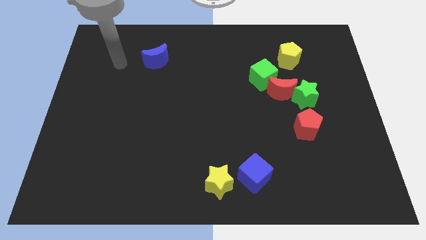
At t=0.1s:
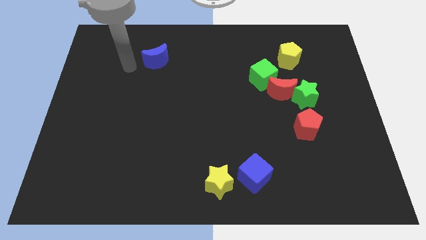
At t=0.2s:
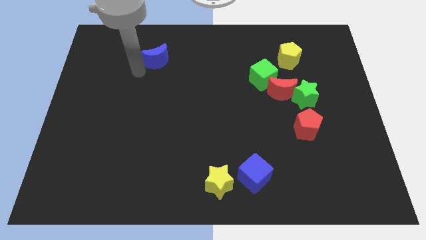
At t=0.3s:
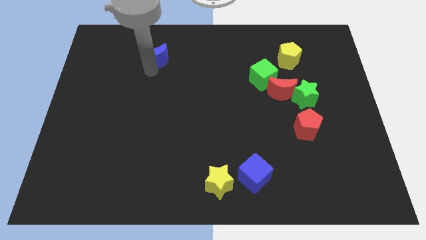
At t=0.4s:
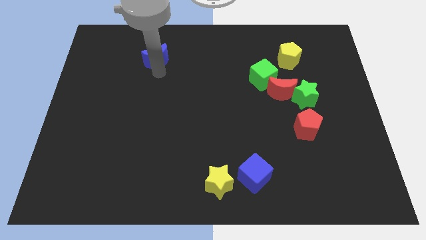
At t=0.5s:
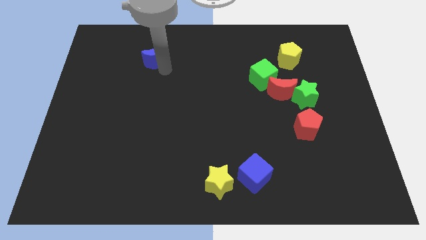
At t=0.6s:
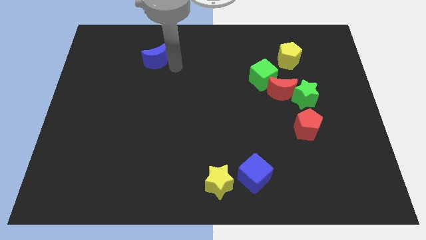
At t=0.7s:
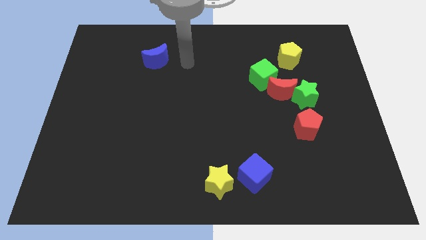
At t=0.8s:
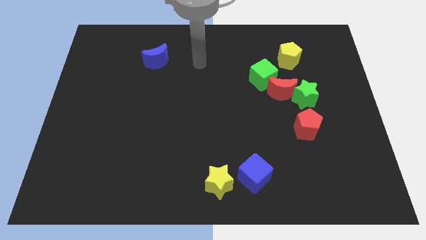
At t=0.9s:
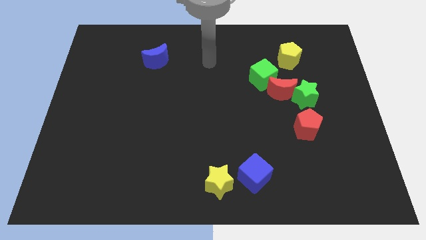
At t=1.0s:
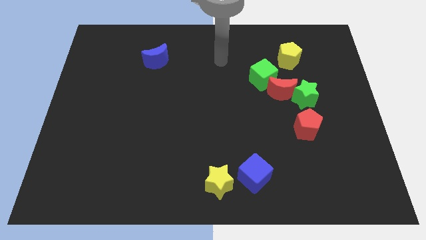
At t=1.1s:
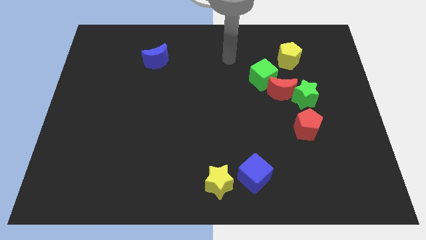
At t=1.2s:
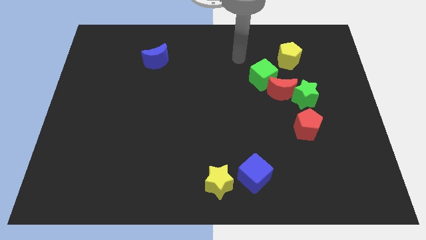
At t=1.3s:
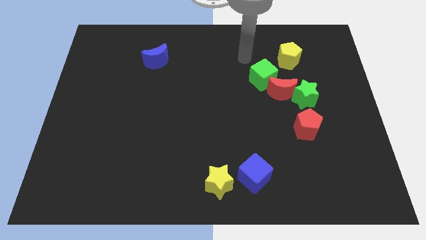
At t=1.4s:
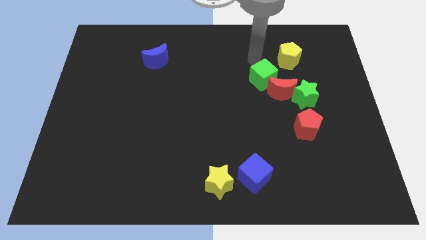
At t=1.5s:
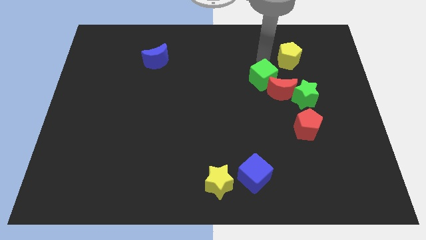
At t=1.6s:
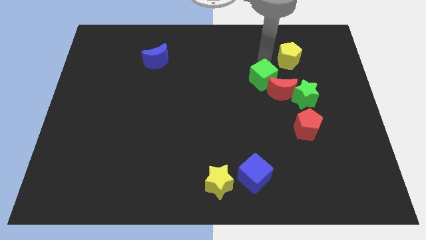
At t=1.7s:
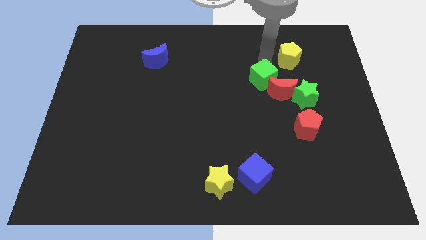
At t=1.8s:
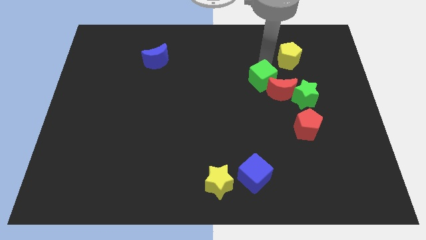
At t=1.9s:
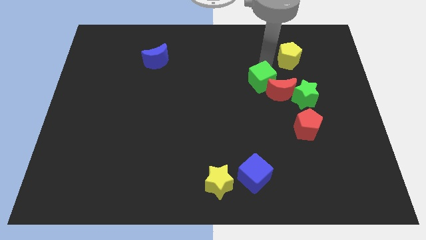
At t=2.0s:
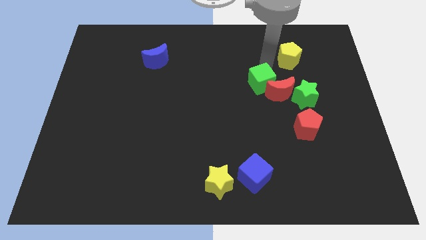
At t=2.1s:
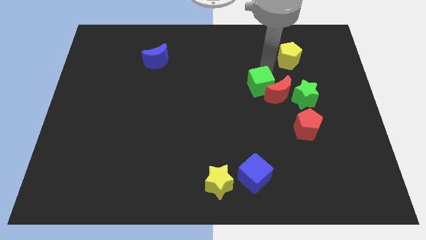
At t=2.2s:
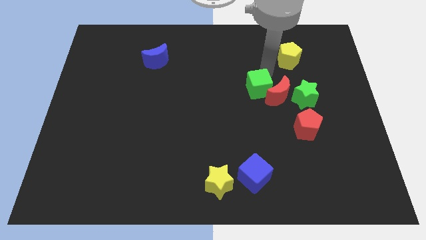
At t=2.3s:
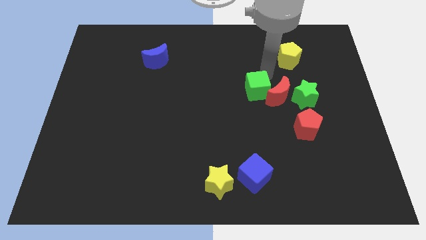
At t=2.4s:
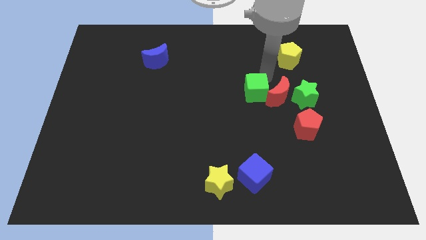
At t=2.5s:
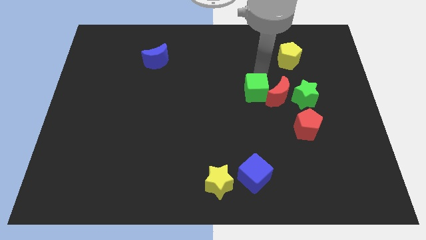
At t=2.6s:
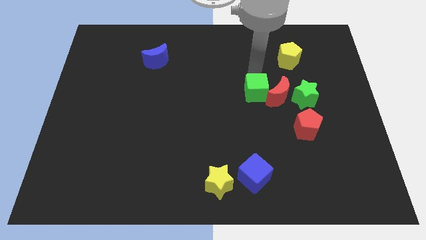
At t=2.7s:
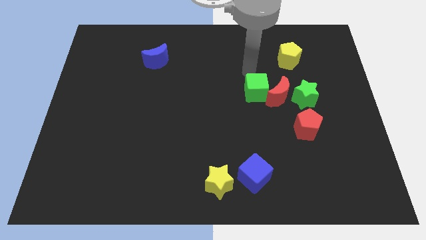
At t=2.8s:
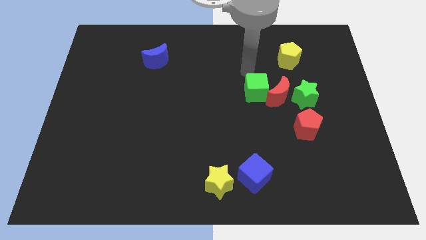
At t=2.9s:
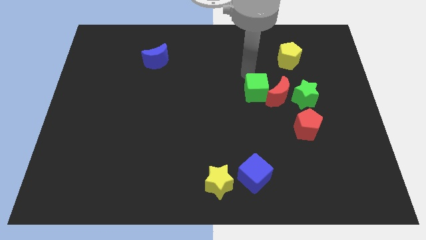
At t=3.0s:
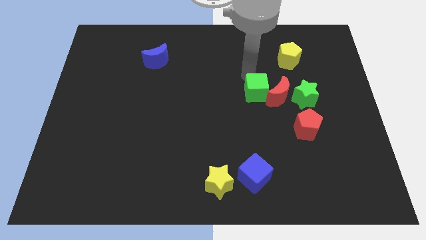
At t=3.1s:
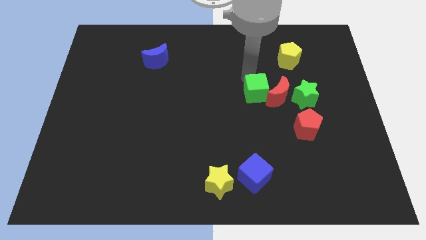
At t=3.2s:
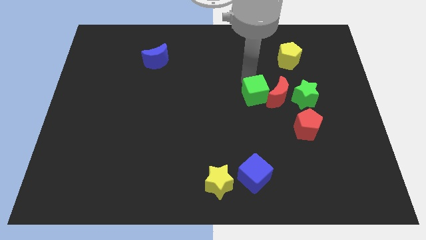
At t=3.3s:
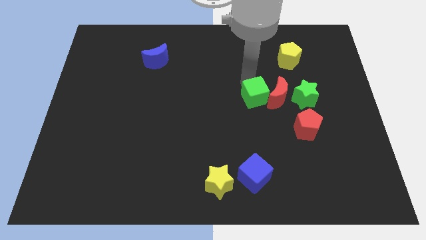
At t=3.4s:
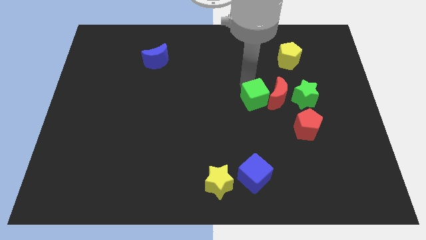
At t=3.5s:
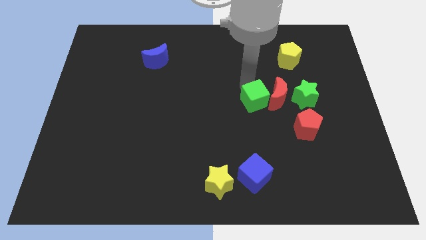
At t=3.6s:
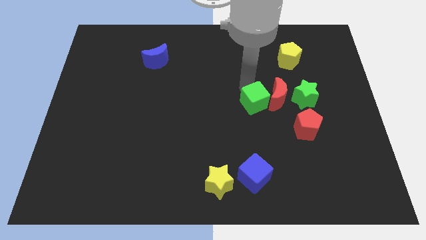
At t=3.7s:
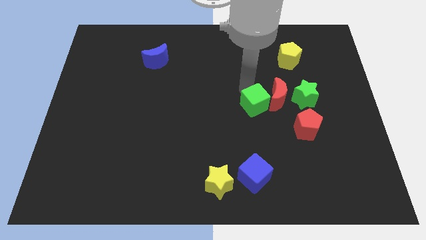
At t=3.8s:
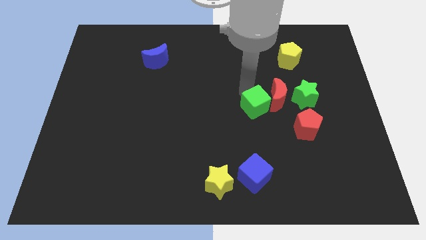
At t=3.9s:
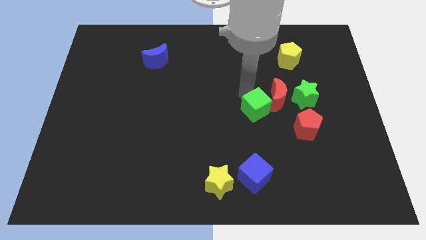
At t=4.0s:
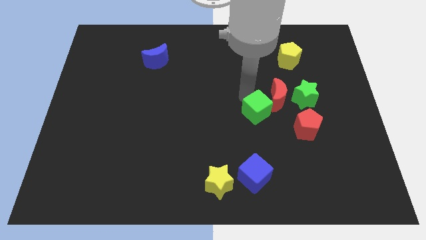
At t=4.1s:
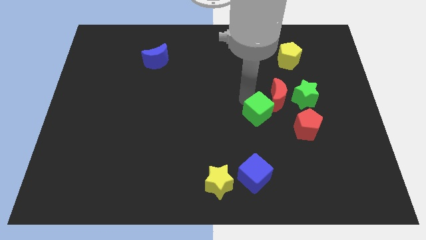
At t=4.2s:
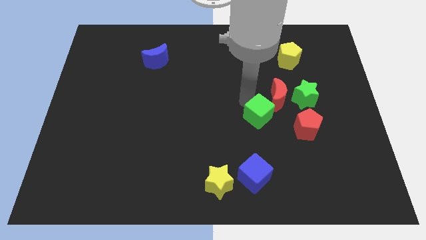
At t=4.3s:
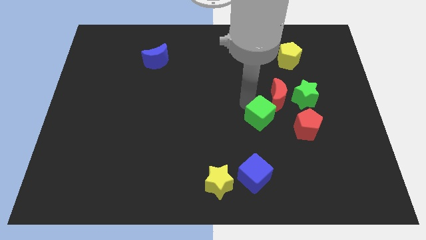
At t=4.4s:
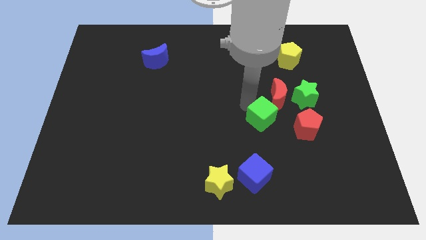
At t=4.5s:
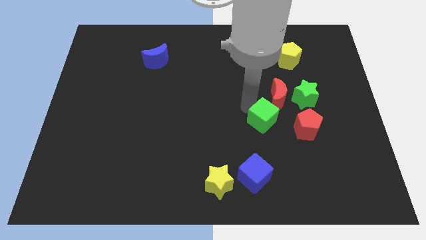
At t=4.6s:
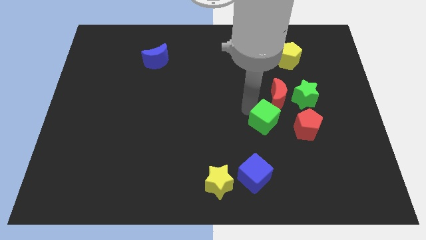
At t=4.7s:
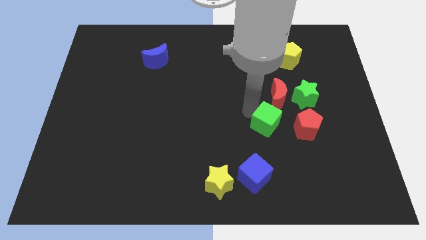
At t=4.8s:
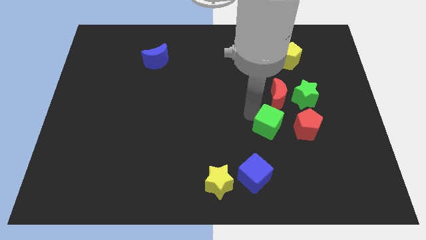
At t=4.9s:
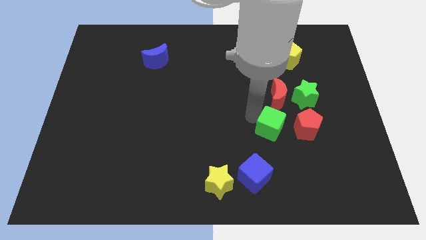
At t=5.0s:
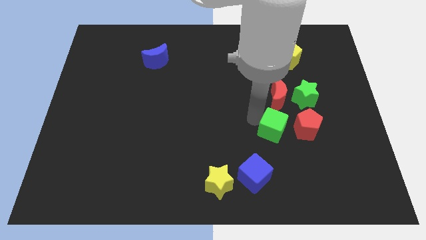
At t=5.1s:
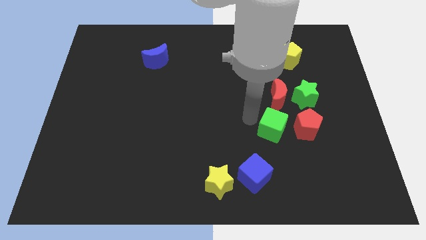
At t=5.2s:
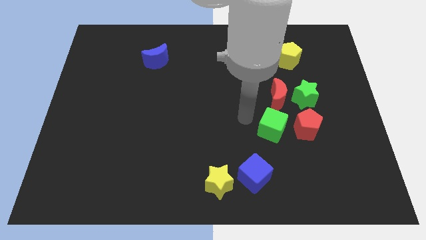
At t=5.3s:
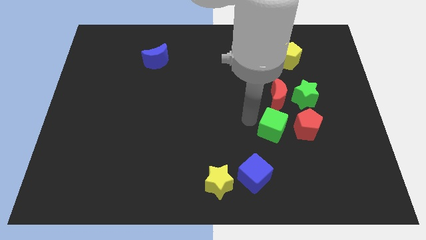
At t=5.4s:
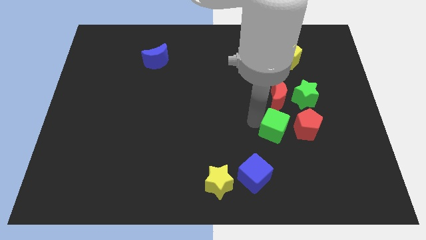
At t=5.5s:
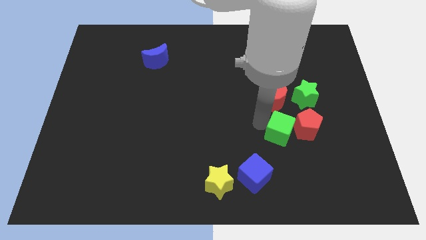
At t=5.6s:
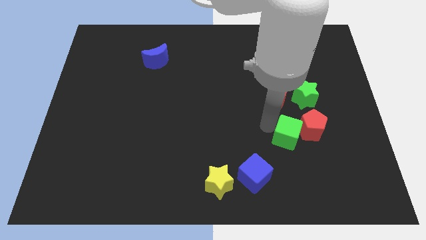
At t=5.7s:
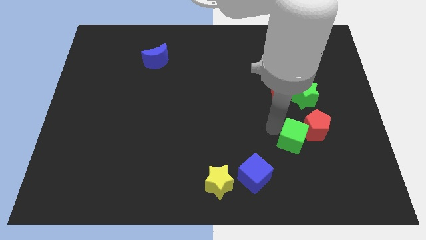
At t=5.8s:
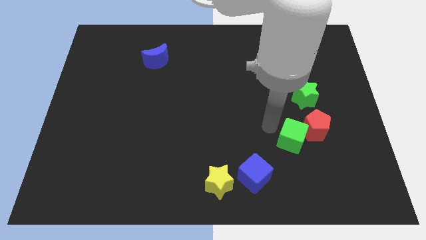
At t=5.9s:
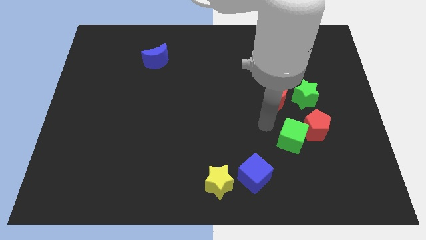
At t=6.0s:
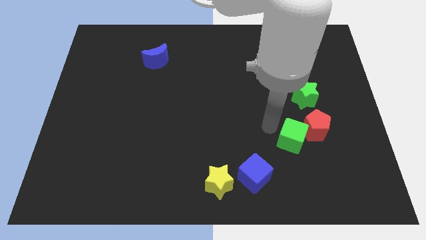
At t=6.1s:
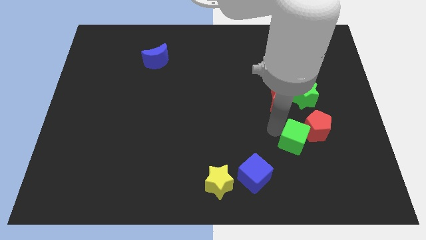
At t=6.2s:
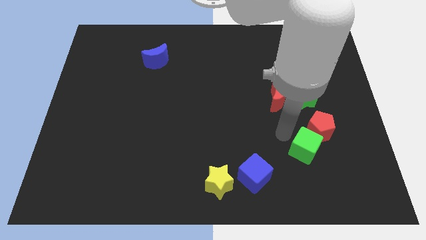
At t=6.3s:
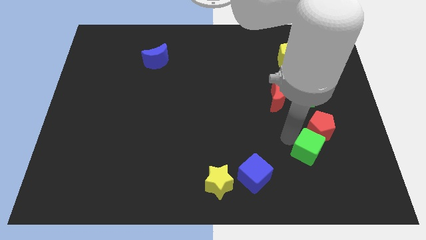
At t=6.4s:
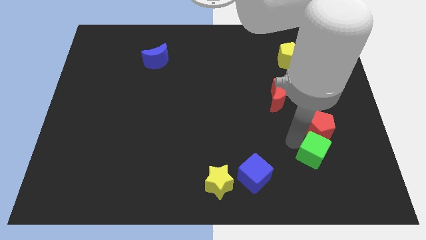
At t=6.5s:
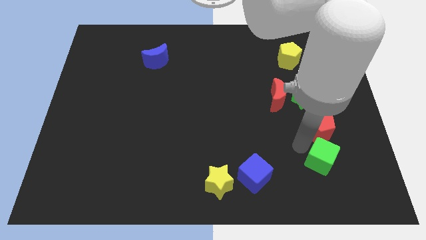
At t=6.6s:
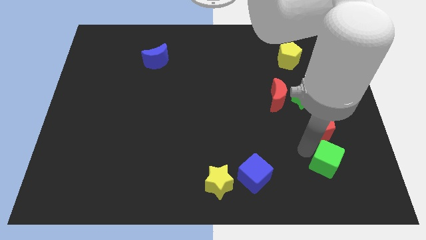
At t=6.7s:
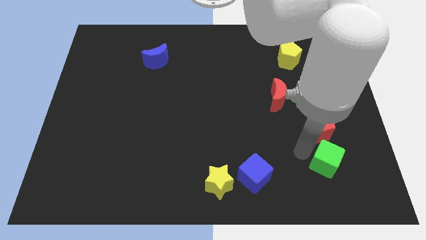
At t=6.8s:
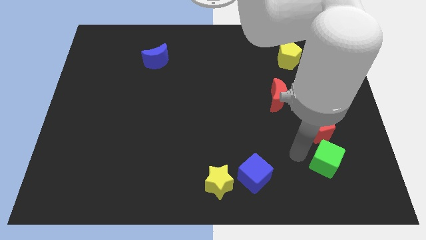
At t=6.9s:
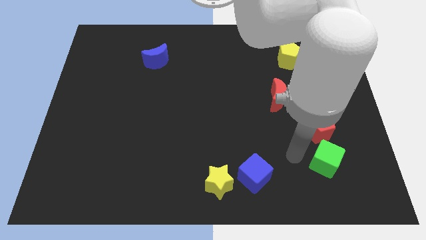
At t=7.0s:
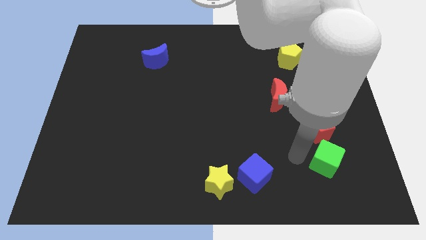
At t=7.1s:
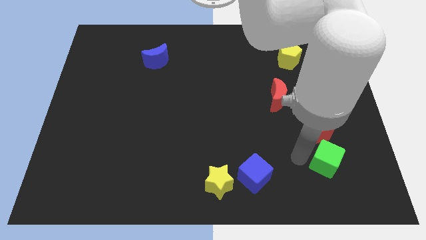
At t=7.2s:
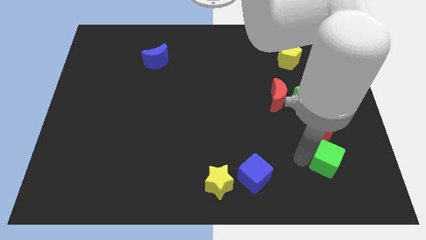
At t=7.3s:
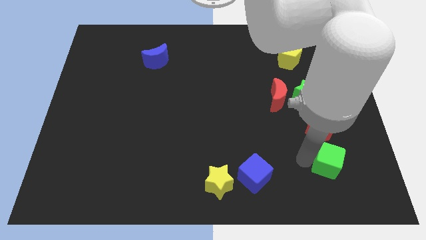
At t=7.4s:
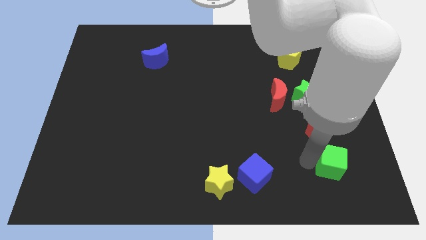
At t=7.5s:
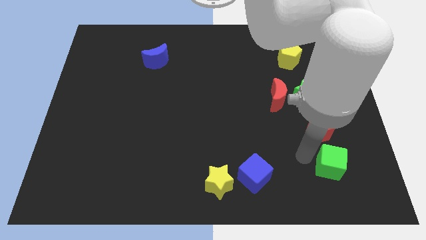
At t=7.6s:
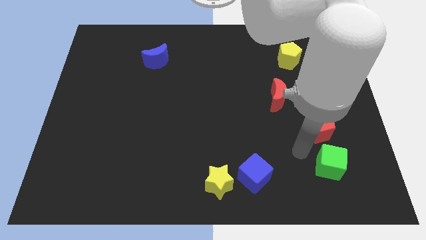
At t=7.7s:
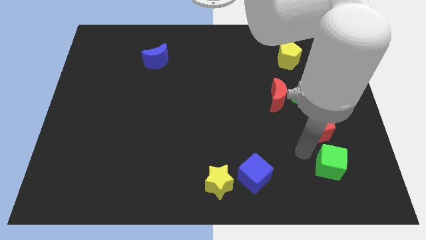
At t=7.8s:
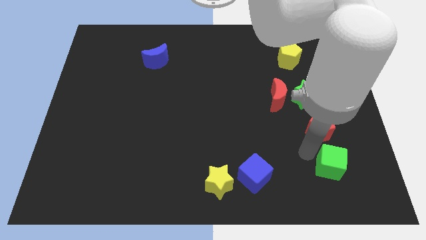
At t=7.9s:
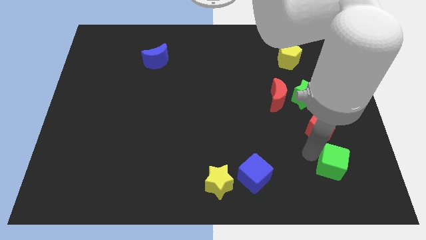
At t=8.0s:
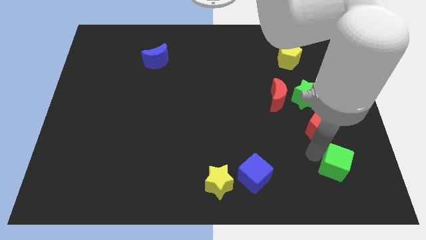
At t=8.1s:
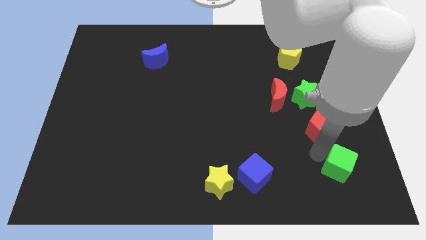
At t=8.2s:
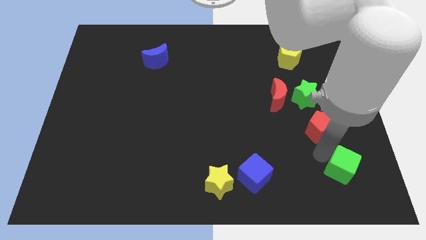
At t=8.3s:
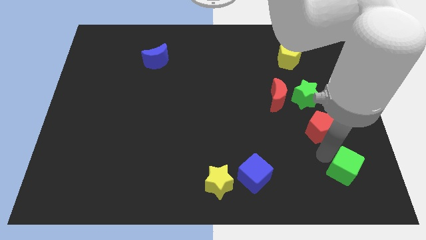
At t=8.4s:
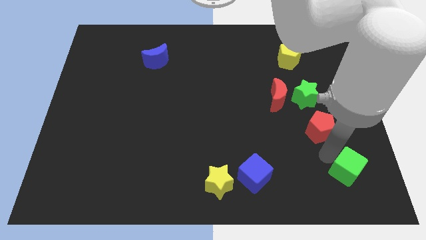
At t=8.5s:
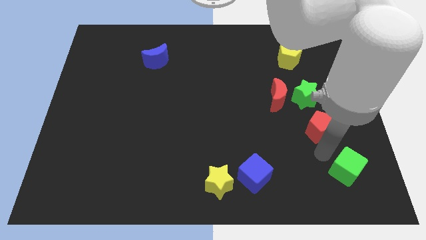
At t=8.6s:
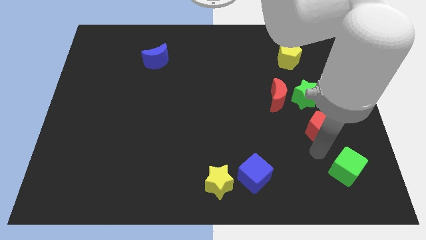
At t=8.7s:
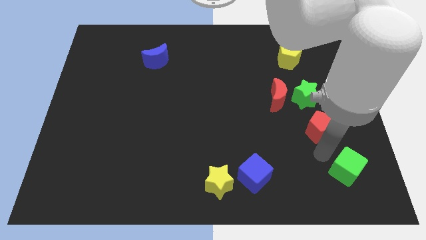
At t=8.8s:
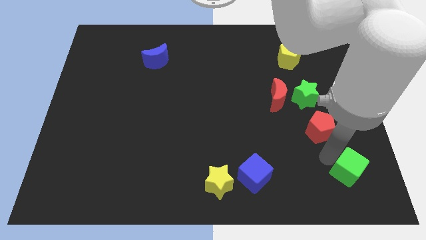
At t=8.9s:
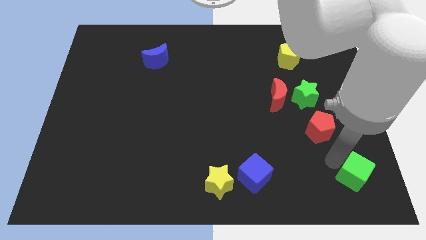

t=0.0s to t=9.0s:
slide the green cube to the bottom right
